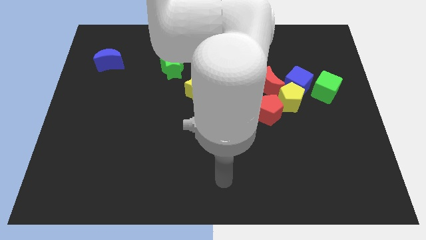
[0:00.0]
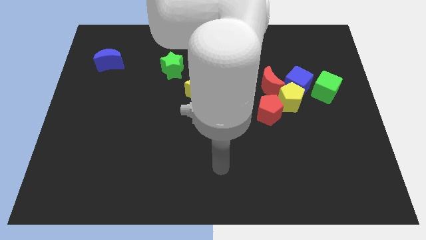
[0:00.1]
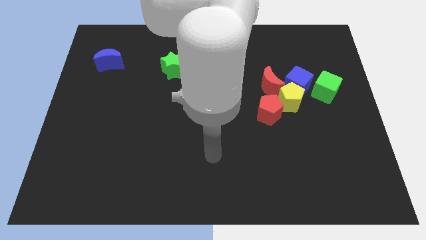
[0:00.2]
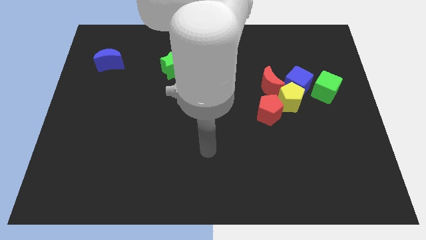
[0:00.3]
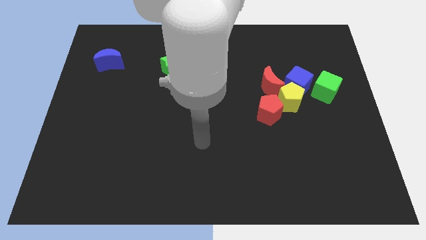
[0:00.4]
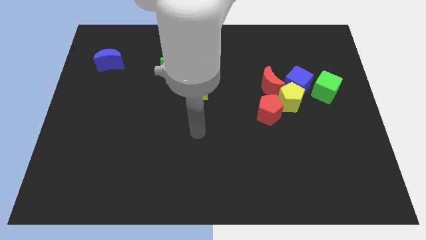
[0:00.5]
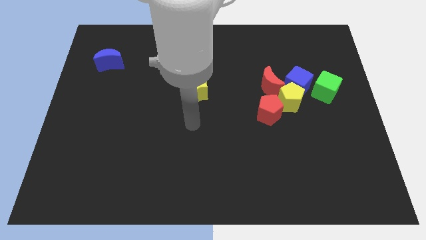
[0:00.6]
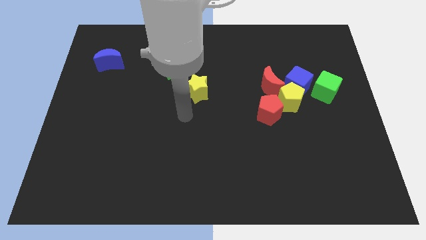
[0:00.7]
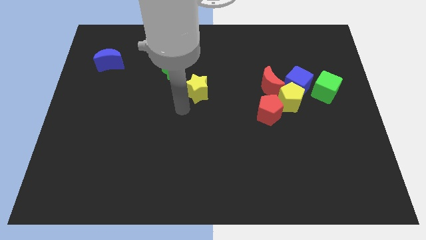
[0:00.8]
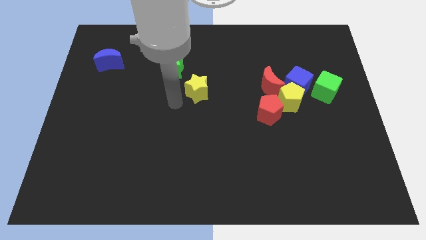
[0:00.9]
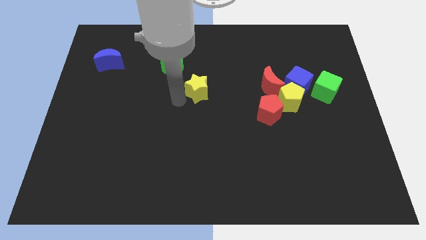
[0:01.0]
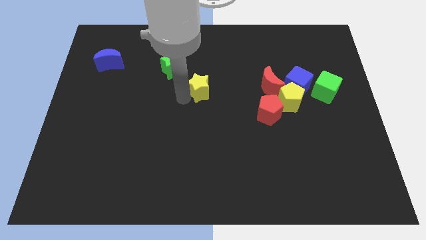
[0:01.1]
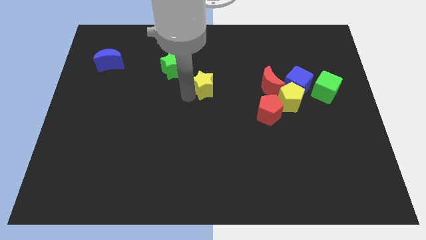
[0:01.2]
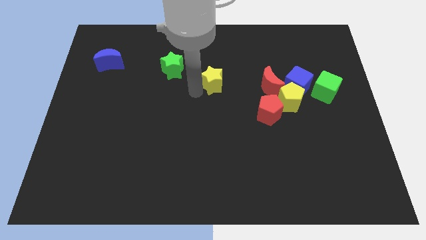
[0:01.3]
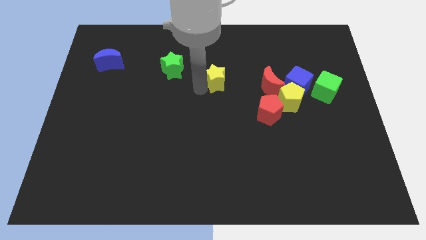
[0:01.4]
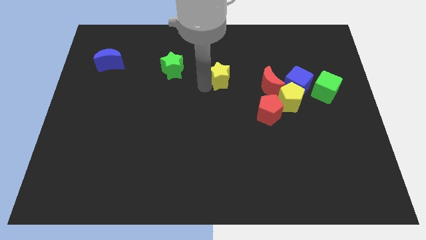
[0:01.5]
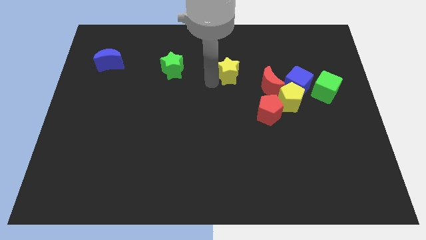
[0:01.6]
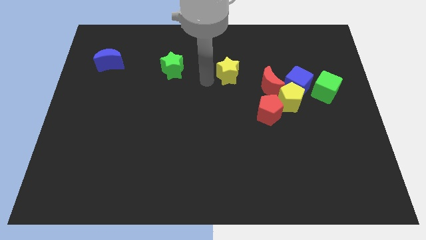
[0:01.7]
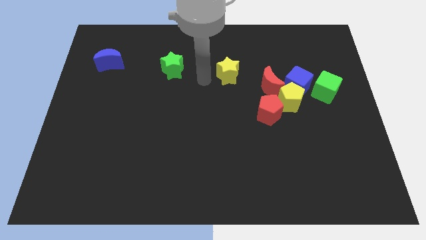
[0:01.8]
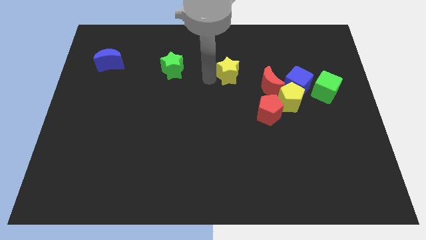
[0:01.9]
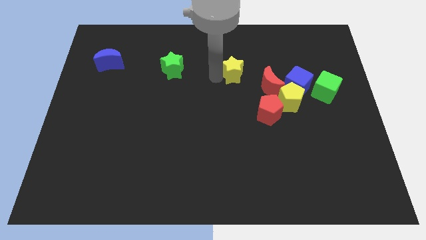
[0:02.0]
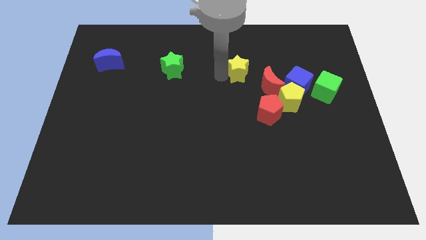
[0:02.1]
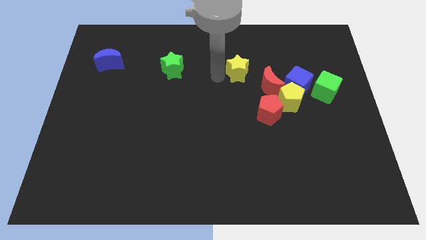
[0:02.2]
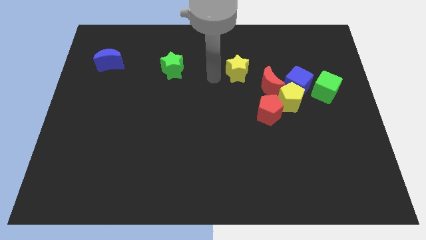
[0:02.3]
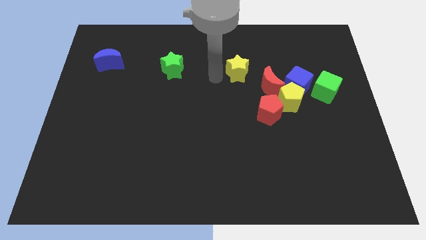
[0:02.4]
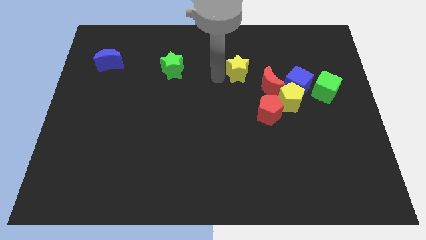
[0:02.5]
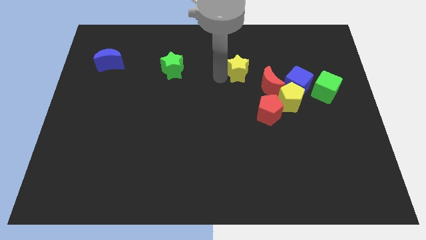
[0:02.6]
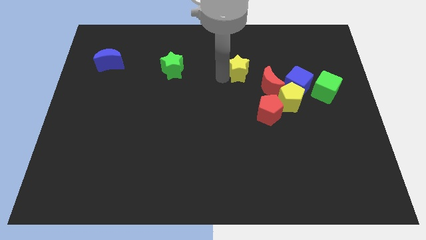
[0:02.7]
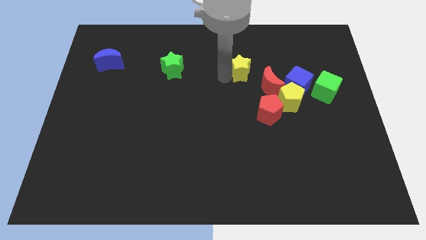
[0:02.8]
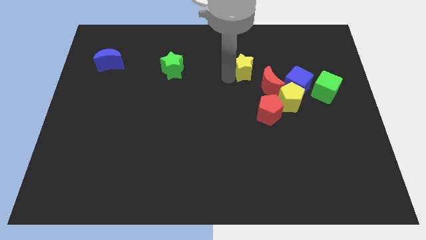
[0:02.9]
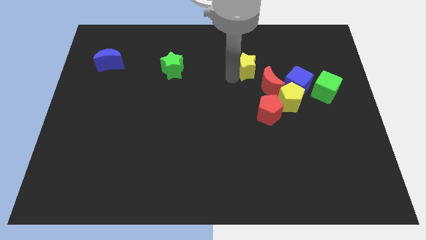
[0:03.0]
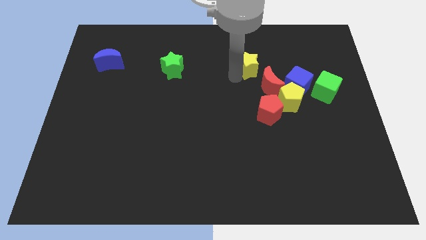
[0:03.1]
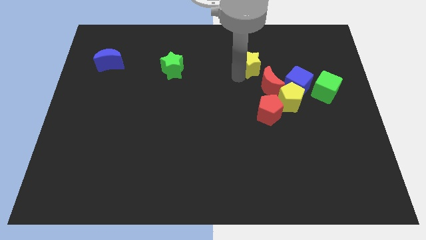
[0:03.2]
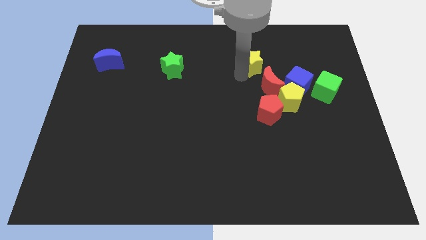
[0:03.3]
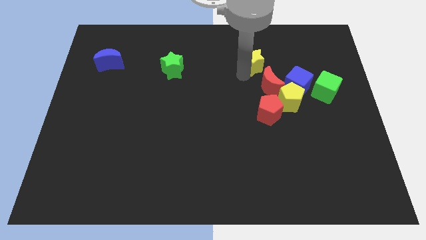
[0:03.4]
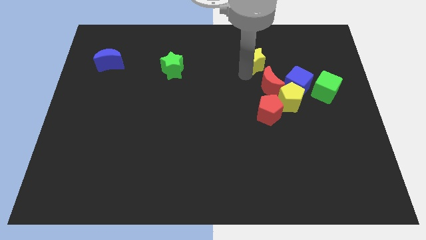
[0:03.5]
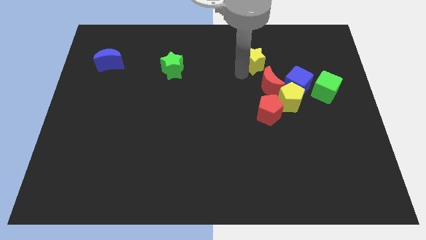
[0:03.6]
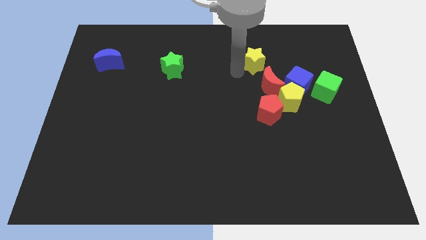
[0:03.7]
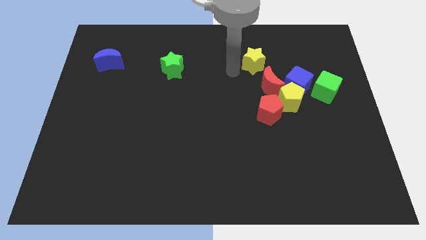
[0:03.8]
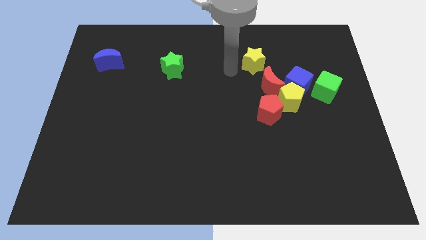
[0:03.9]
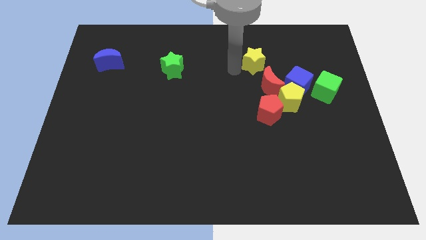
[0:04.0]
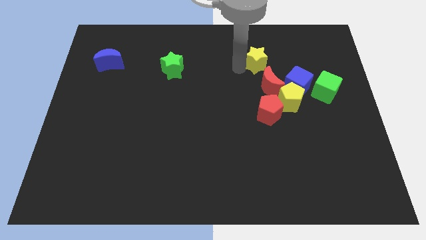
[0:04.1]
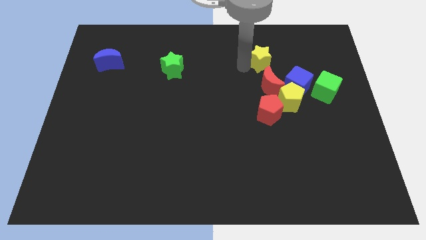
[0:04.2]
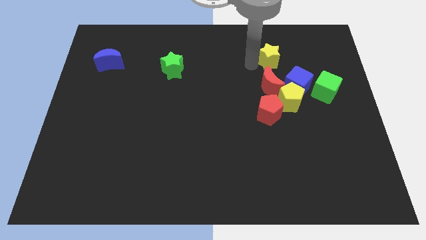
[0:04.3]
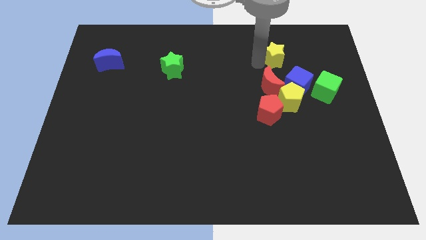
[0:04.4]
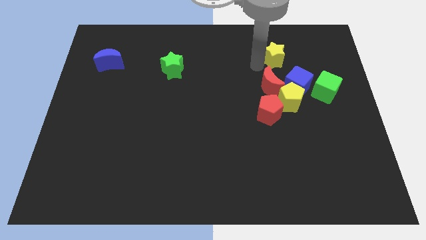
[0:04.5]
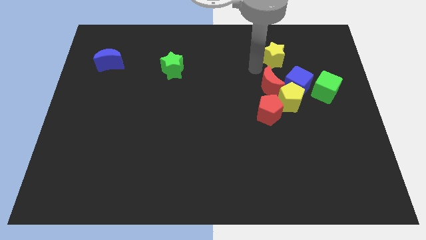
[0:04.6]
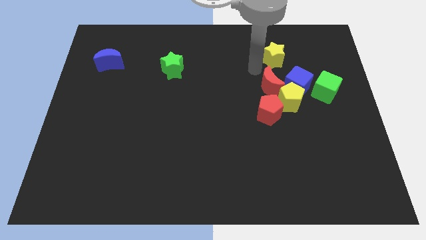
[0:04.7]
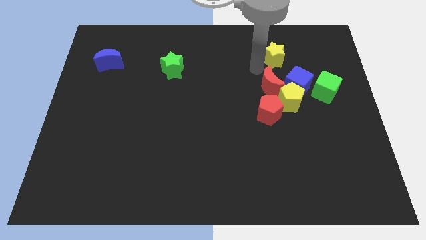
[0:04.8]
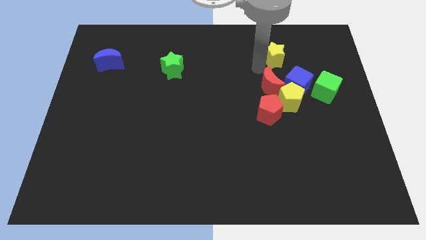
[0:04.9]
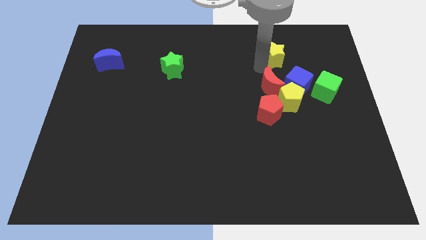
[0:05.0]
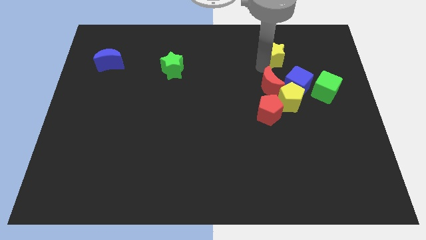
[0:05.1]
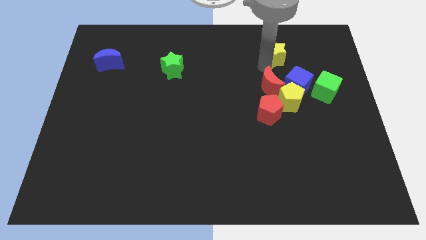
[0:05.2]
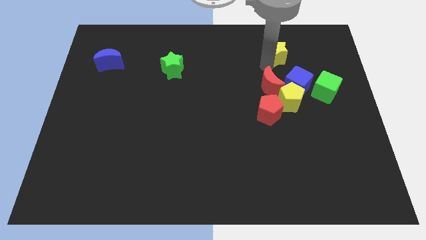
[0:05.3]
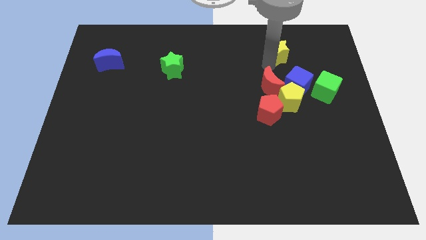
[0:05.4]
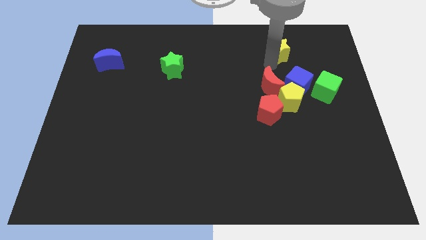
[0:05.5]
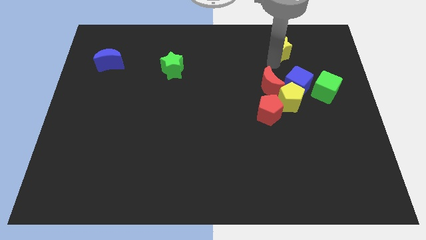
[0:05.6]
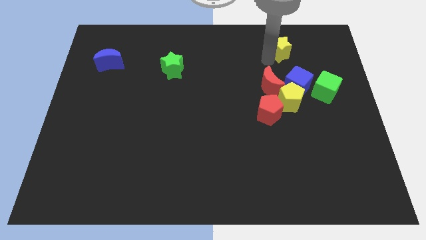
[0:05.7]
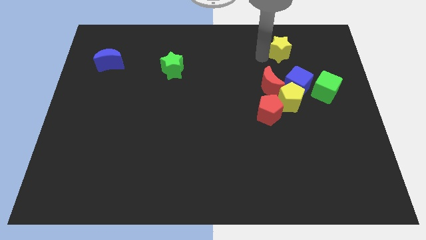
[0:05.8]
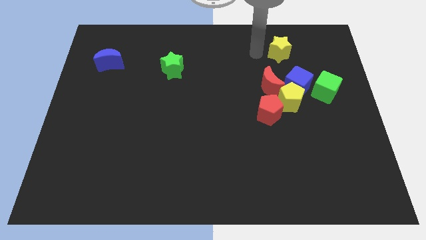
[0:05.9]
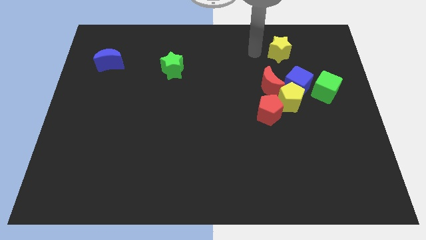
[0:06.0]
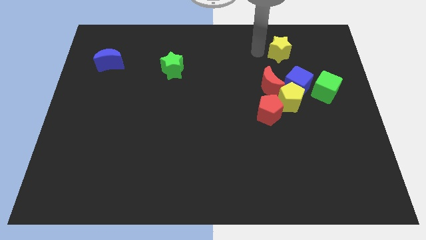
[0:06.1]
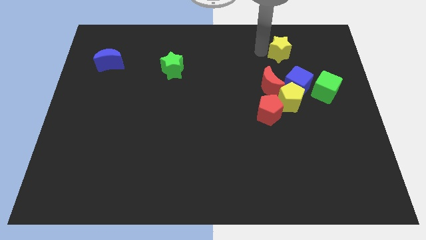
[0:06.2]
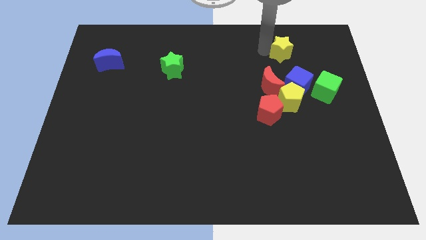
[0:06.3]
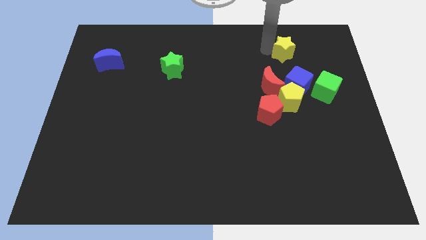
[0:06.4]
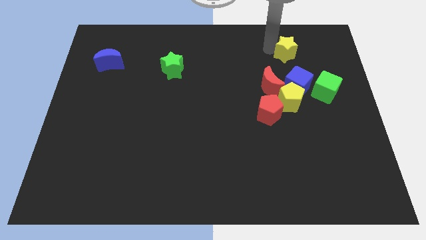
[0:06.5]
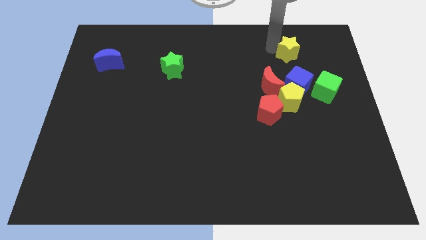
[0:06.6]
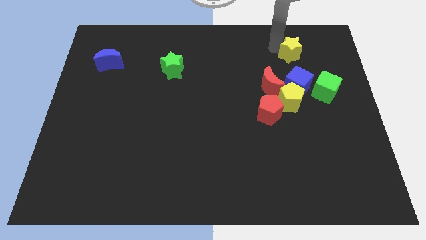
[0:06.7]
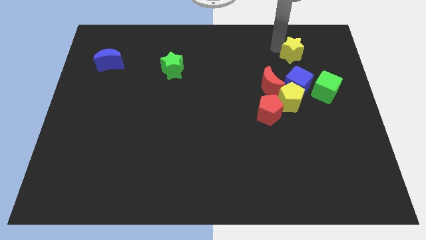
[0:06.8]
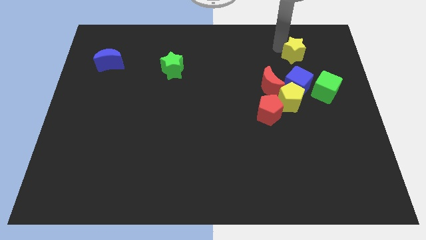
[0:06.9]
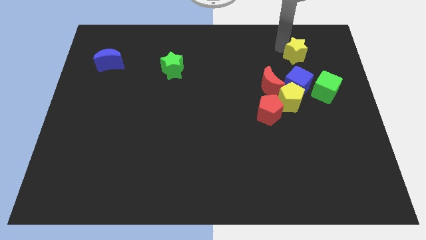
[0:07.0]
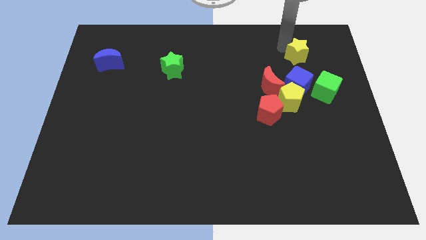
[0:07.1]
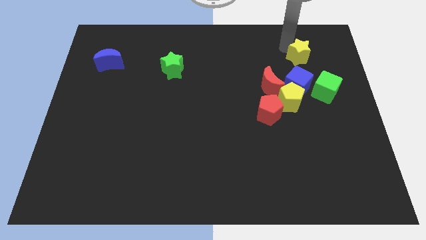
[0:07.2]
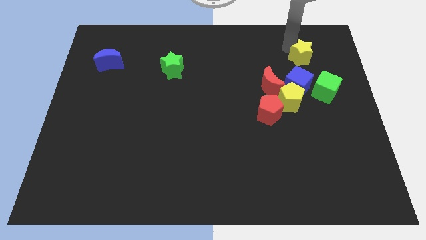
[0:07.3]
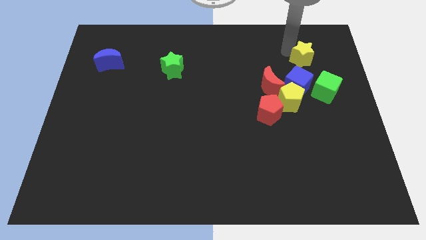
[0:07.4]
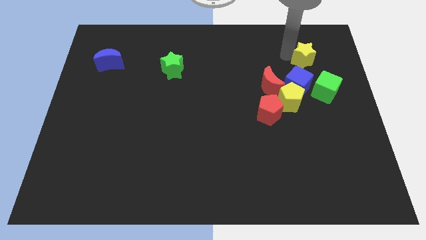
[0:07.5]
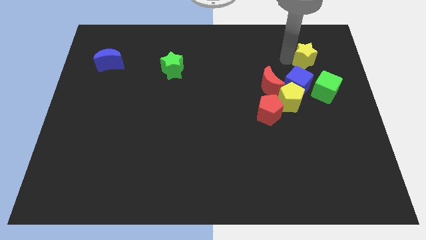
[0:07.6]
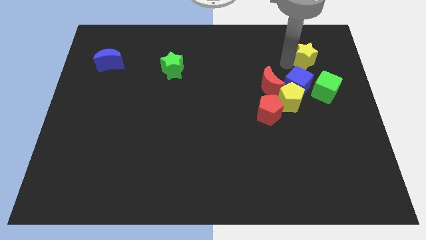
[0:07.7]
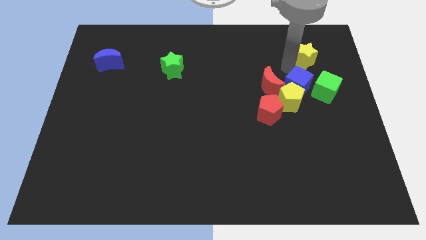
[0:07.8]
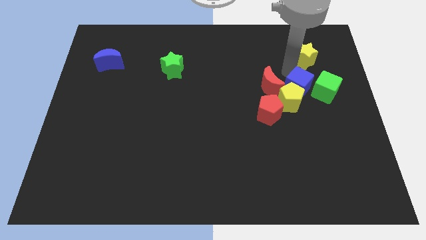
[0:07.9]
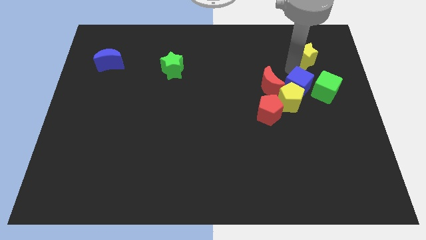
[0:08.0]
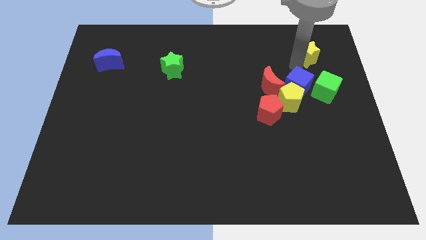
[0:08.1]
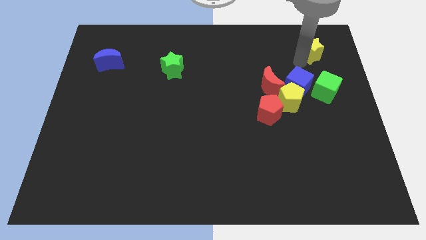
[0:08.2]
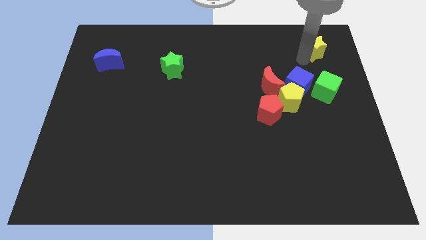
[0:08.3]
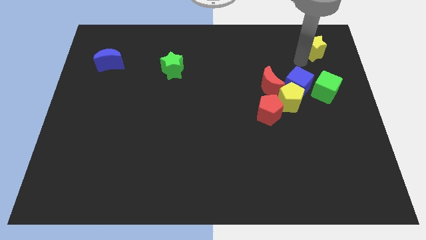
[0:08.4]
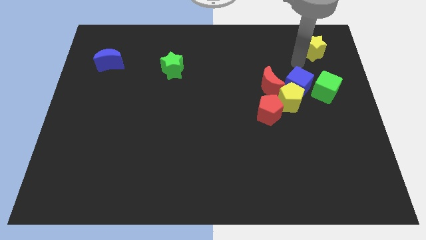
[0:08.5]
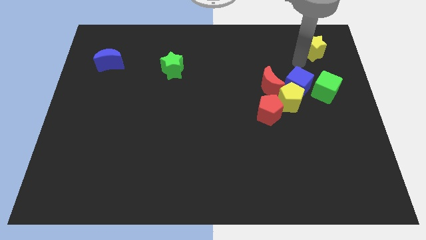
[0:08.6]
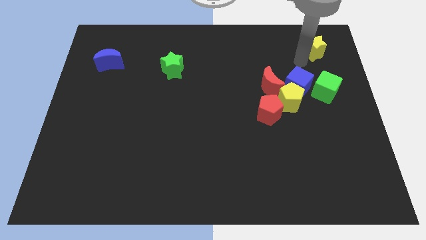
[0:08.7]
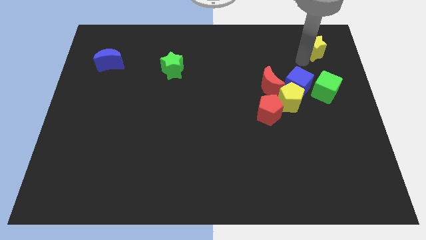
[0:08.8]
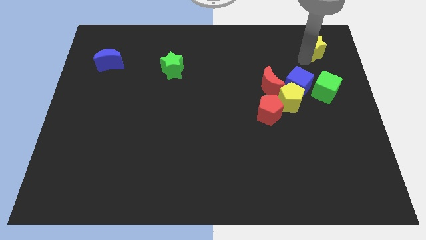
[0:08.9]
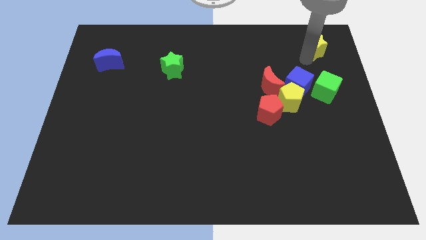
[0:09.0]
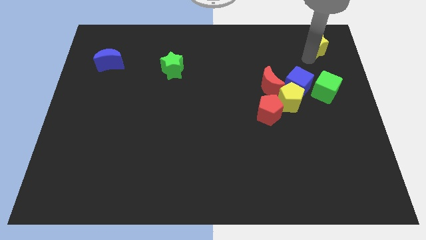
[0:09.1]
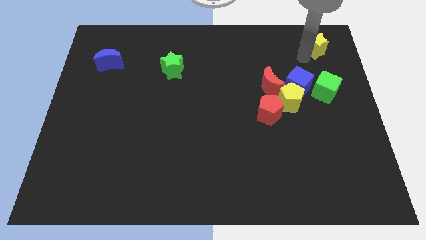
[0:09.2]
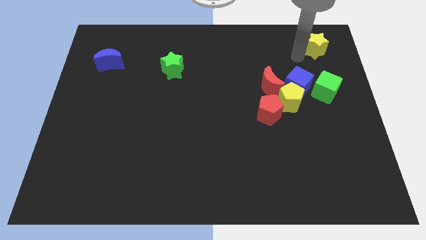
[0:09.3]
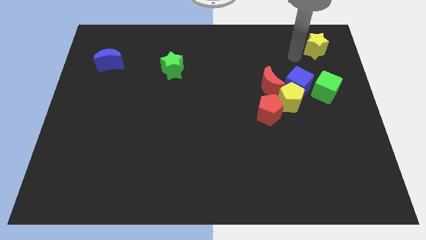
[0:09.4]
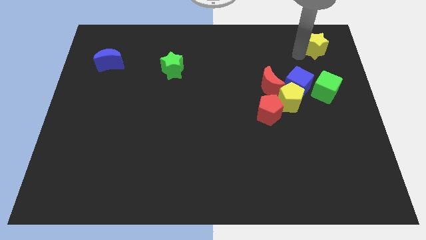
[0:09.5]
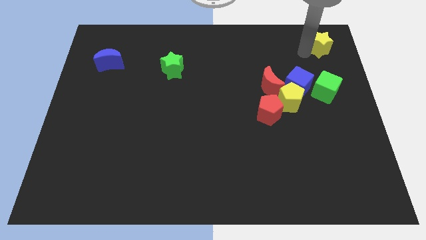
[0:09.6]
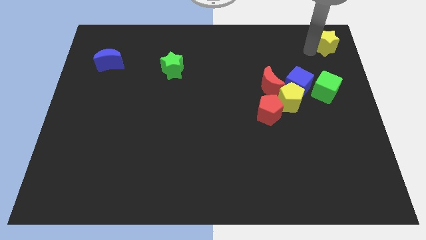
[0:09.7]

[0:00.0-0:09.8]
put the yellow star to the upper right corner
